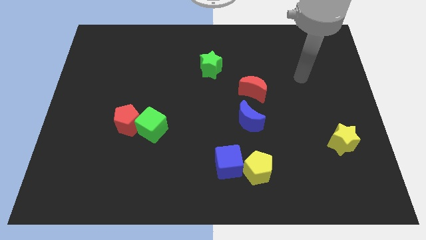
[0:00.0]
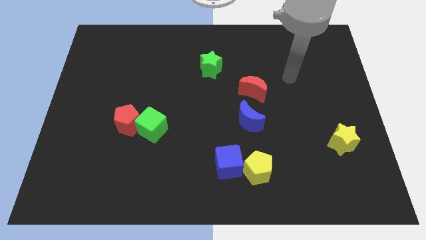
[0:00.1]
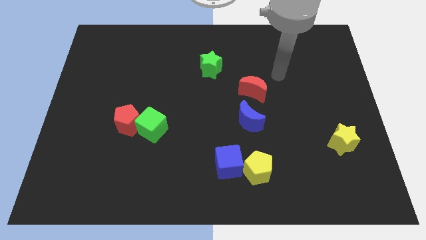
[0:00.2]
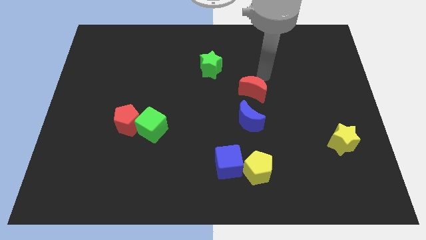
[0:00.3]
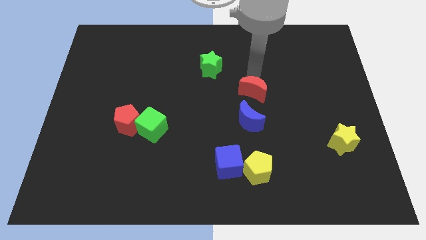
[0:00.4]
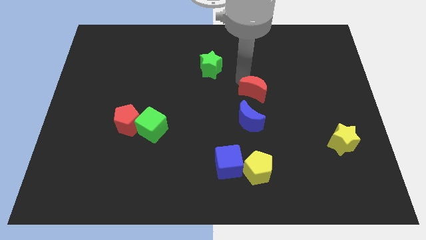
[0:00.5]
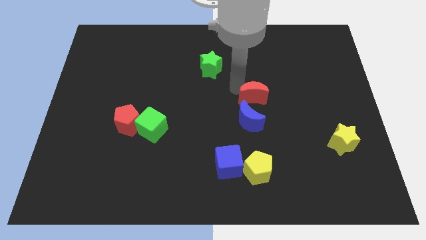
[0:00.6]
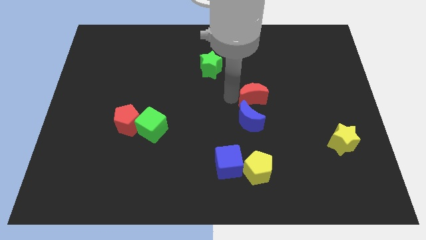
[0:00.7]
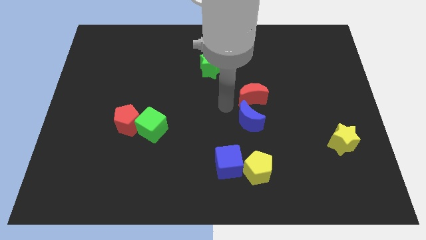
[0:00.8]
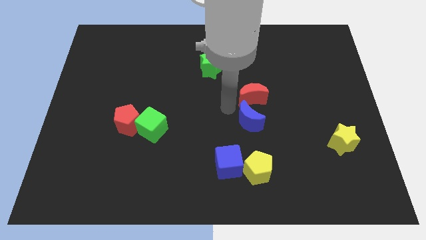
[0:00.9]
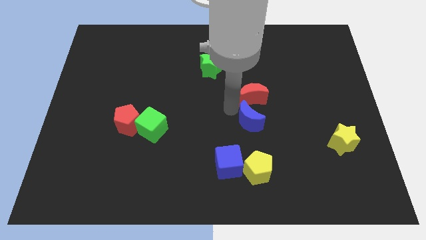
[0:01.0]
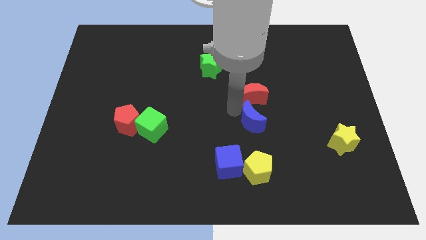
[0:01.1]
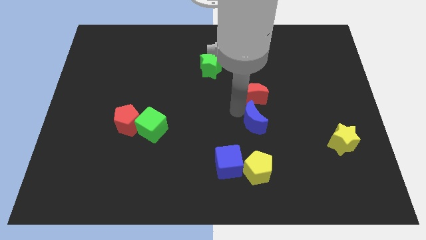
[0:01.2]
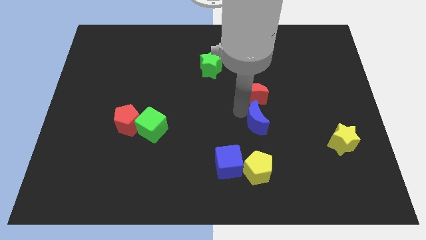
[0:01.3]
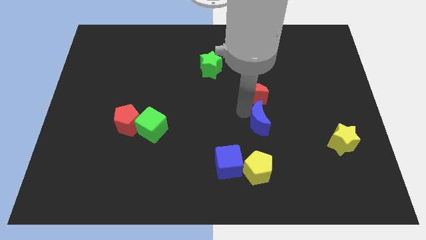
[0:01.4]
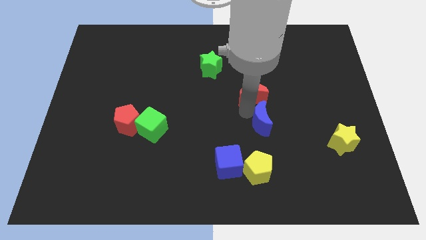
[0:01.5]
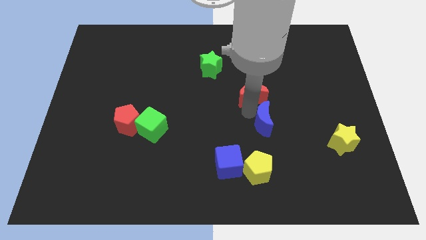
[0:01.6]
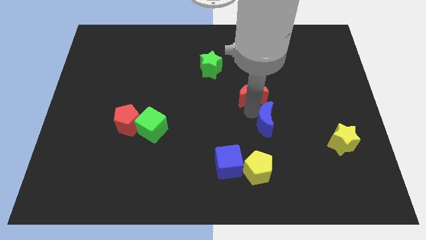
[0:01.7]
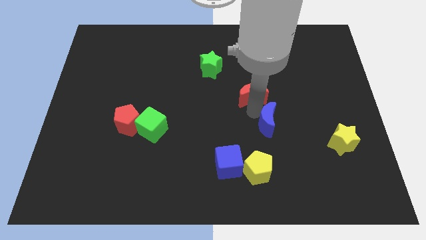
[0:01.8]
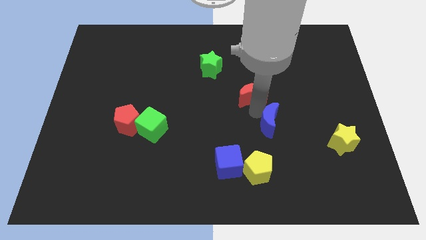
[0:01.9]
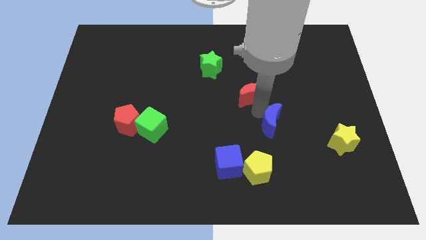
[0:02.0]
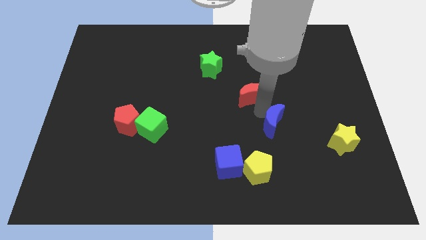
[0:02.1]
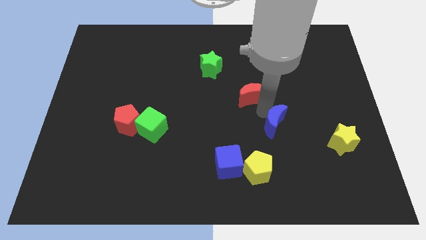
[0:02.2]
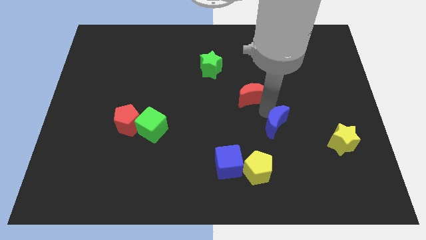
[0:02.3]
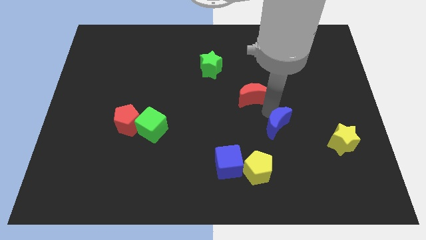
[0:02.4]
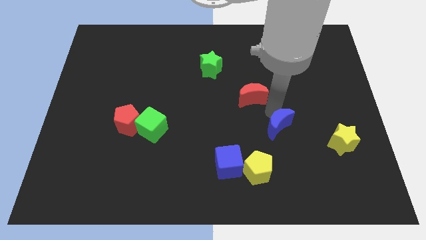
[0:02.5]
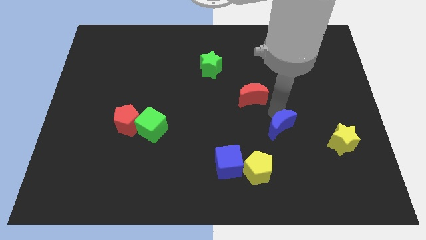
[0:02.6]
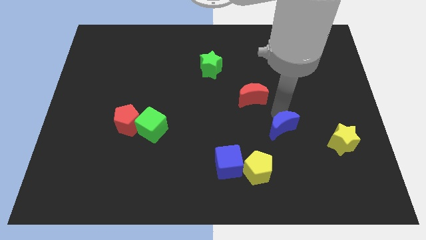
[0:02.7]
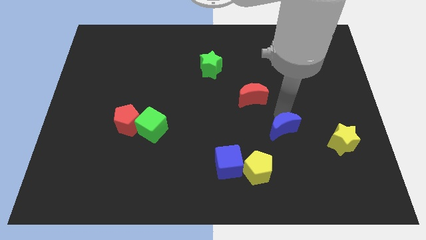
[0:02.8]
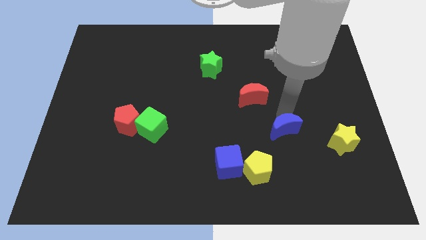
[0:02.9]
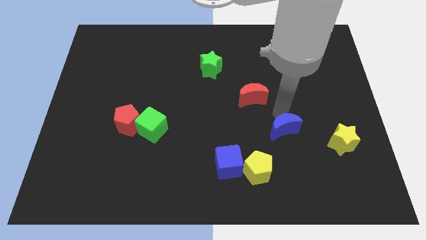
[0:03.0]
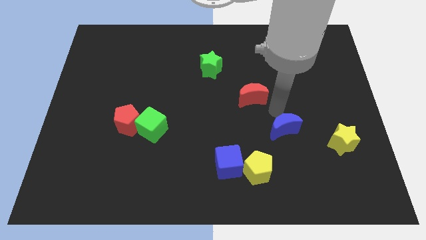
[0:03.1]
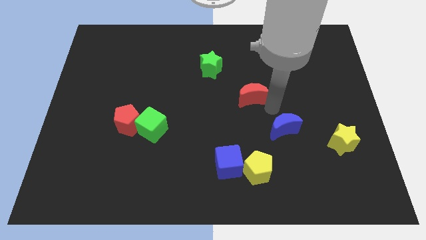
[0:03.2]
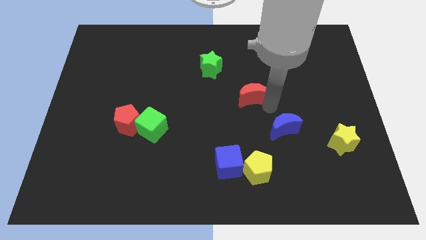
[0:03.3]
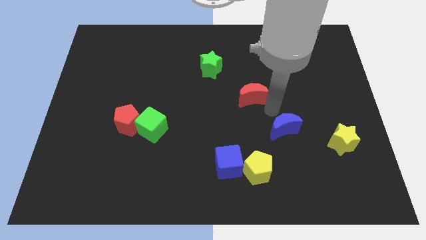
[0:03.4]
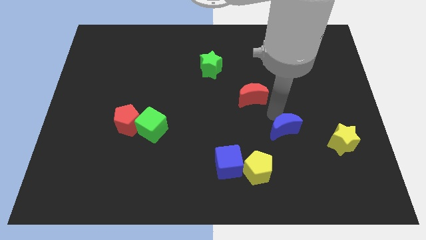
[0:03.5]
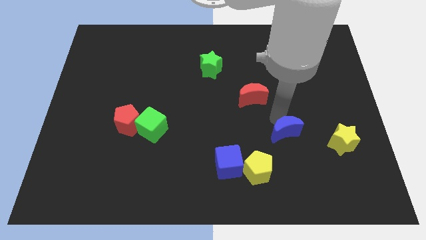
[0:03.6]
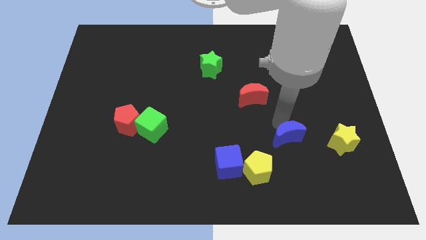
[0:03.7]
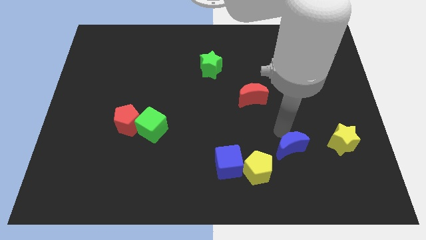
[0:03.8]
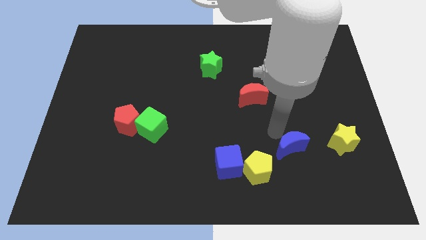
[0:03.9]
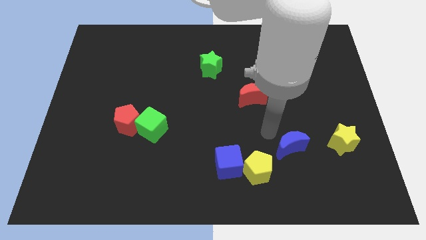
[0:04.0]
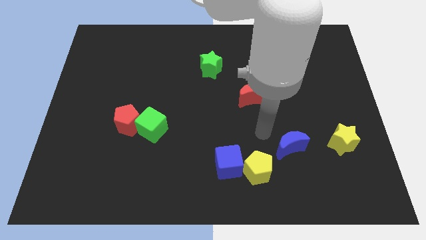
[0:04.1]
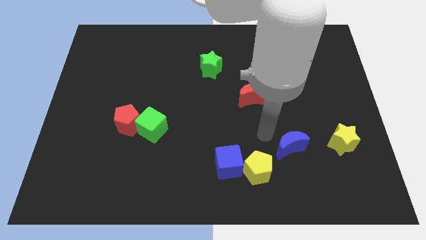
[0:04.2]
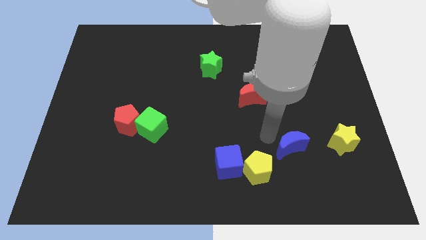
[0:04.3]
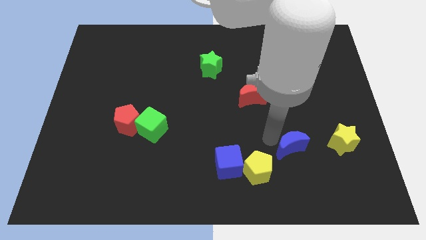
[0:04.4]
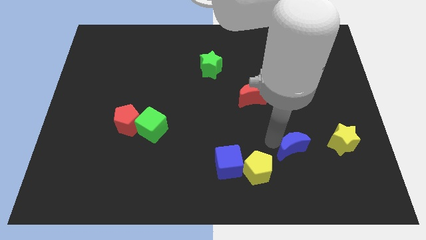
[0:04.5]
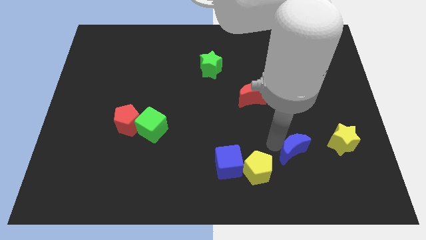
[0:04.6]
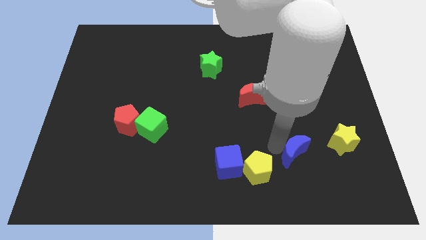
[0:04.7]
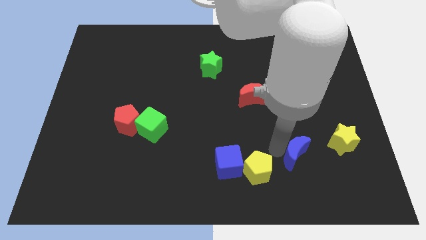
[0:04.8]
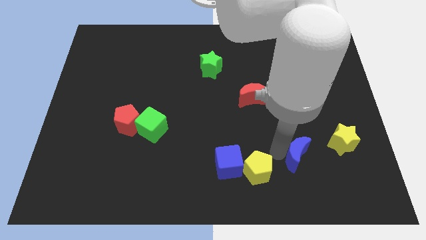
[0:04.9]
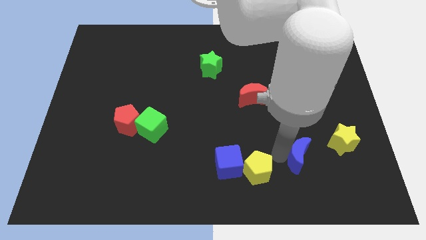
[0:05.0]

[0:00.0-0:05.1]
slide the blue moon diagonally down and to the left of the yellow star

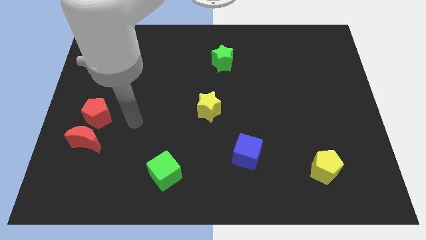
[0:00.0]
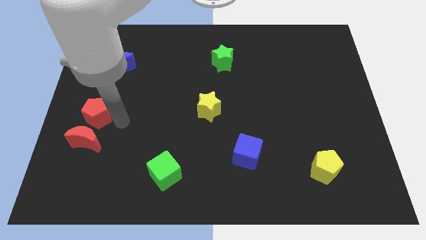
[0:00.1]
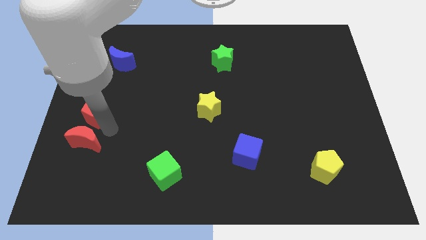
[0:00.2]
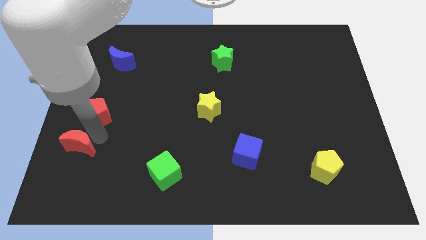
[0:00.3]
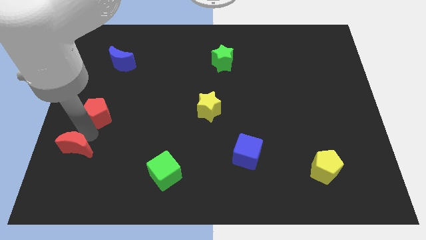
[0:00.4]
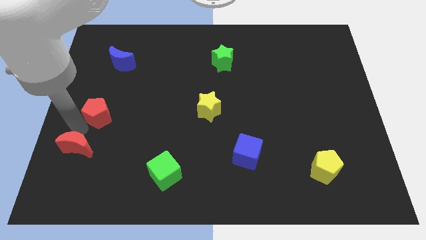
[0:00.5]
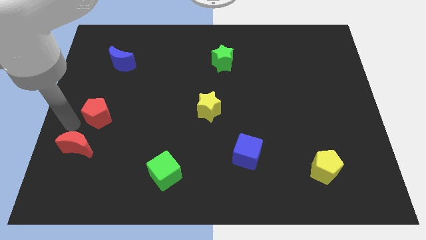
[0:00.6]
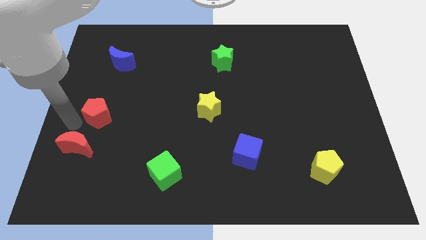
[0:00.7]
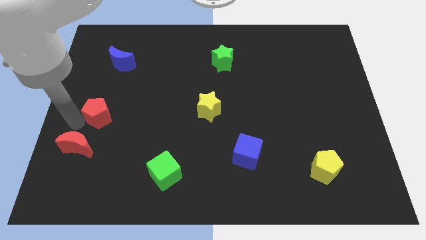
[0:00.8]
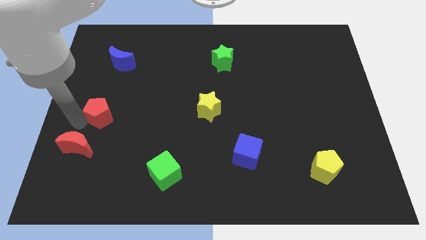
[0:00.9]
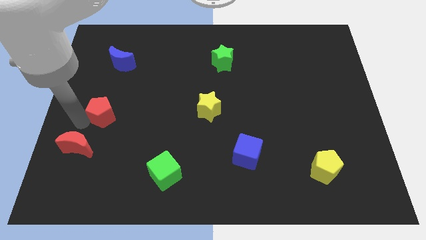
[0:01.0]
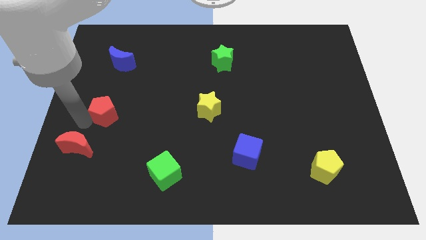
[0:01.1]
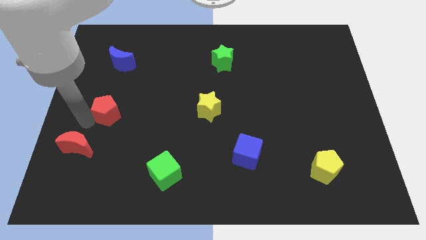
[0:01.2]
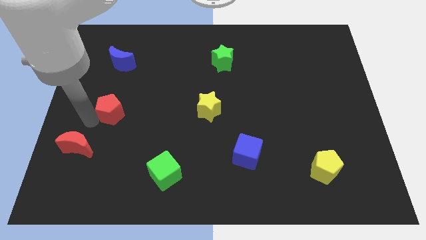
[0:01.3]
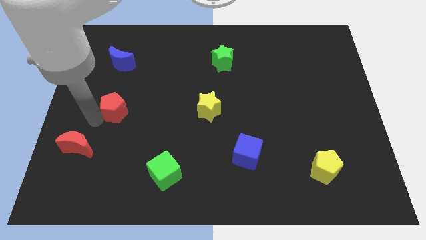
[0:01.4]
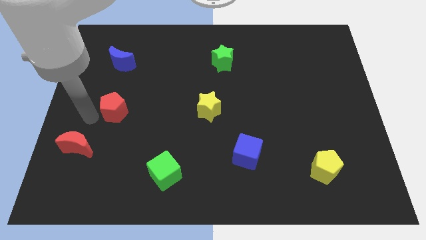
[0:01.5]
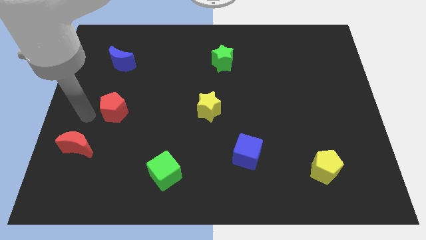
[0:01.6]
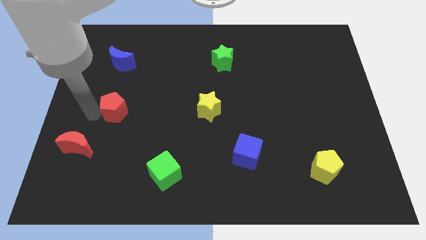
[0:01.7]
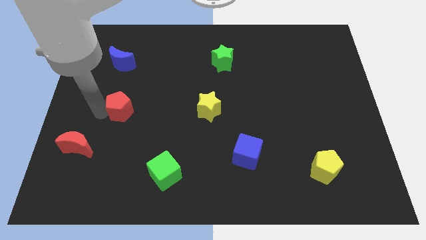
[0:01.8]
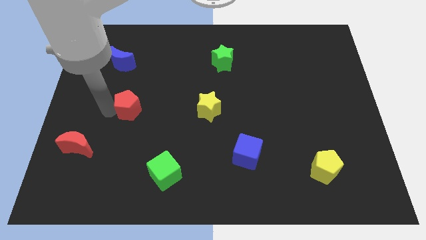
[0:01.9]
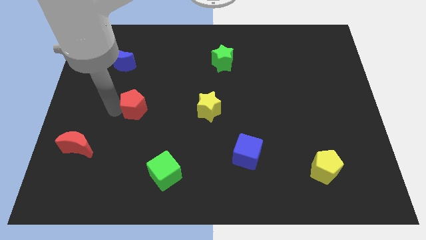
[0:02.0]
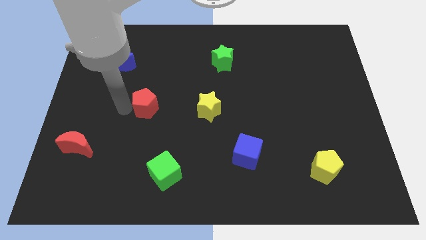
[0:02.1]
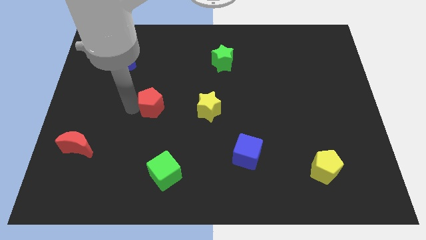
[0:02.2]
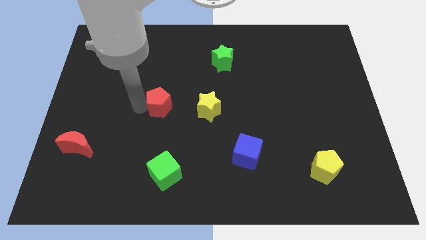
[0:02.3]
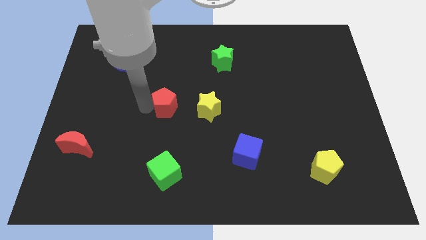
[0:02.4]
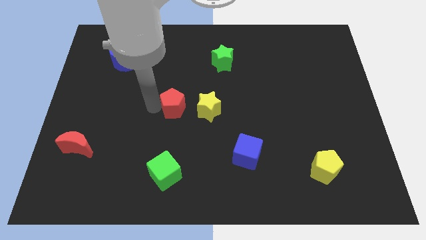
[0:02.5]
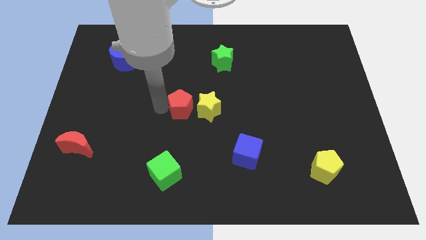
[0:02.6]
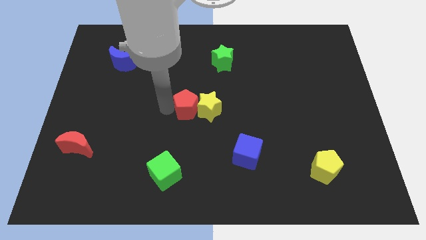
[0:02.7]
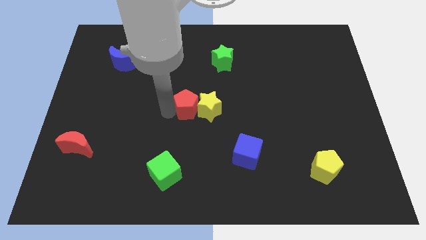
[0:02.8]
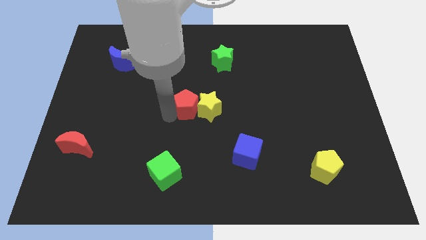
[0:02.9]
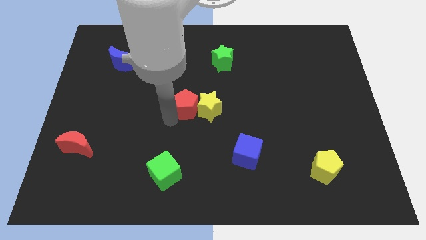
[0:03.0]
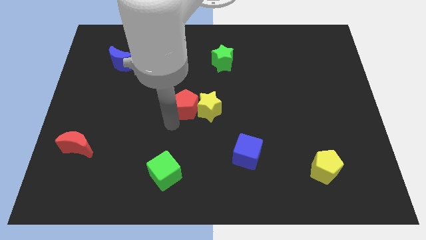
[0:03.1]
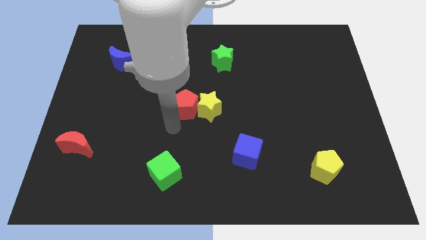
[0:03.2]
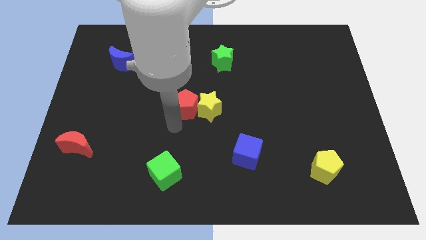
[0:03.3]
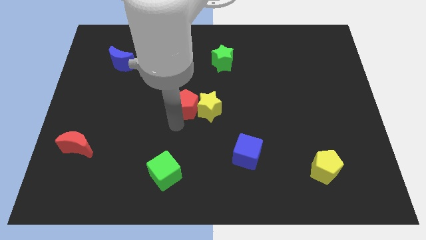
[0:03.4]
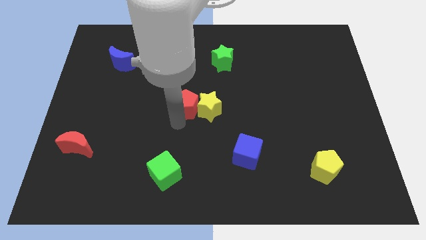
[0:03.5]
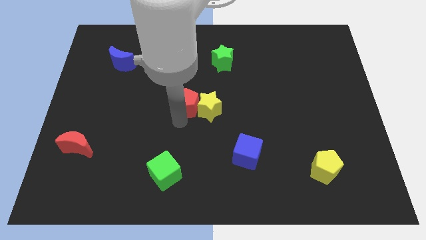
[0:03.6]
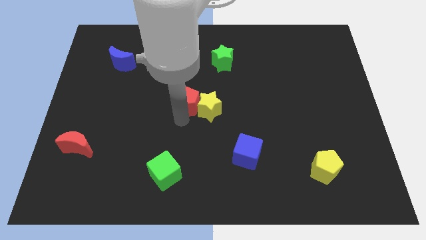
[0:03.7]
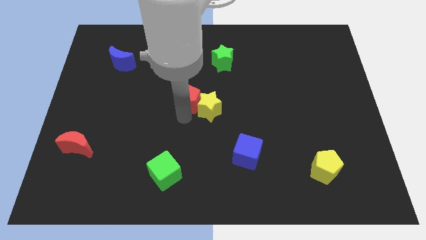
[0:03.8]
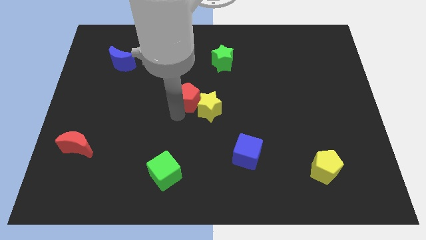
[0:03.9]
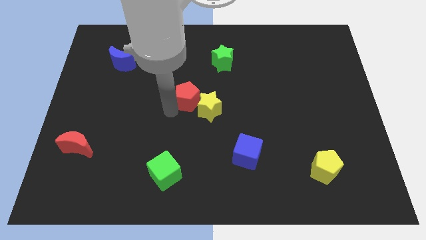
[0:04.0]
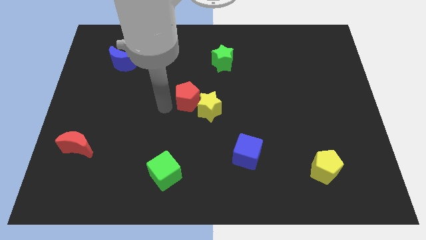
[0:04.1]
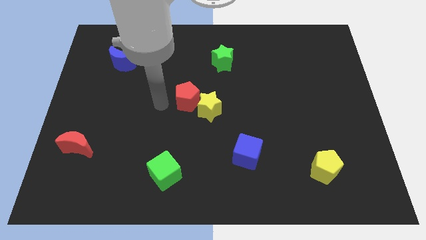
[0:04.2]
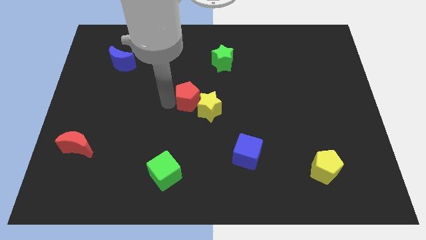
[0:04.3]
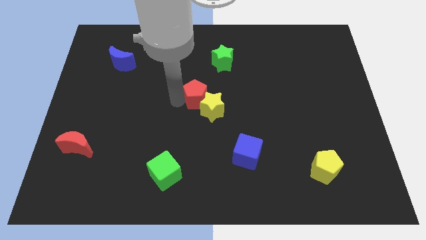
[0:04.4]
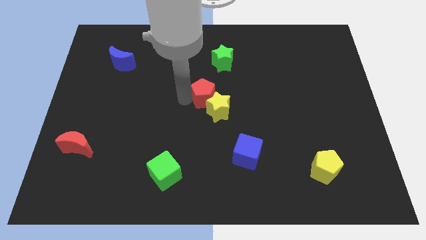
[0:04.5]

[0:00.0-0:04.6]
move the red pentagon to the bottom of the green star
